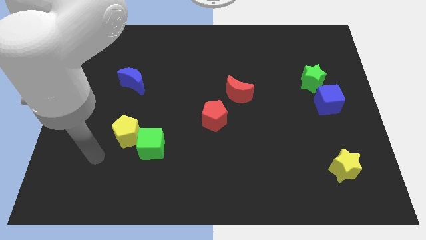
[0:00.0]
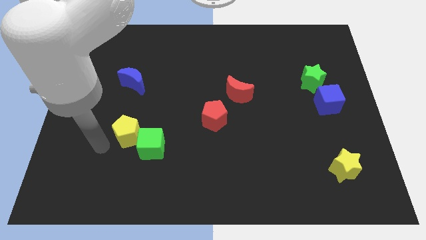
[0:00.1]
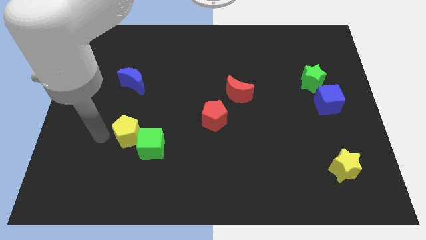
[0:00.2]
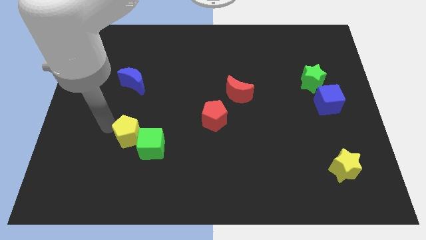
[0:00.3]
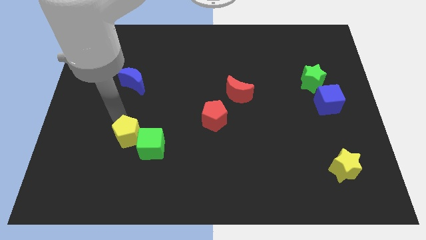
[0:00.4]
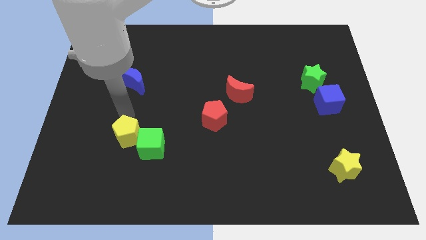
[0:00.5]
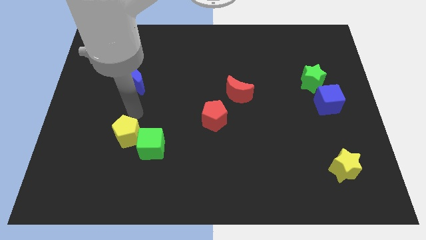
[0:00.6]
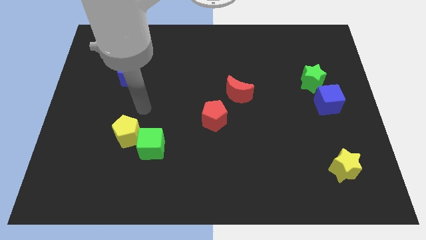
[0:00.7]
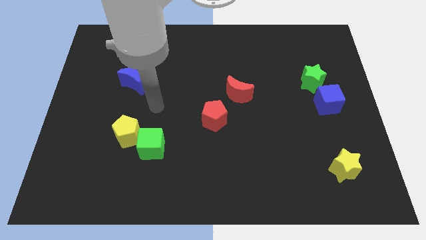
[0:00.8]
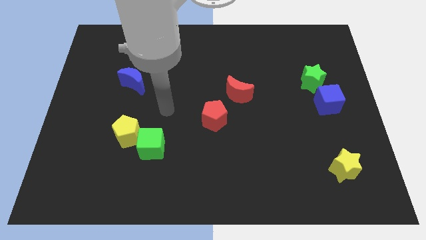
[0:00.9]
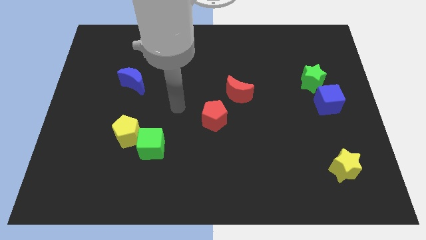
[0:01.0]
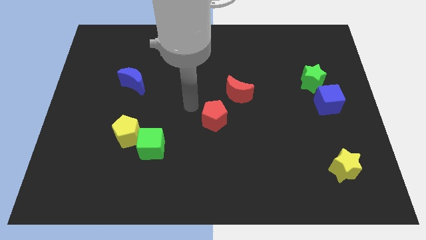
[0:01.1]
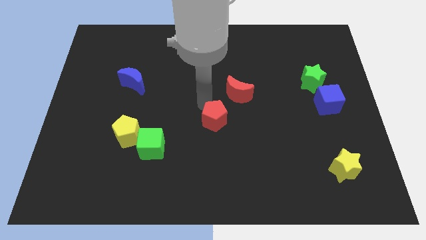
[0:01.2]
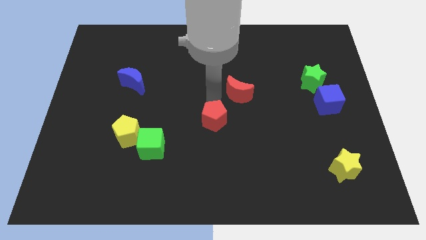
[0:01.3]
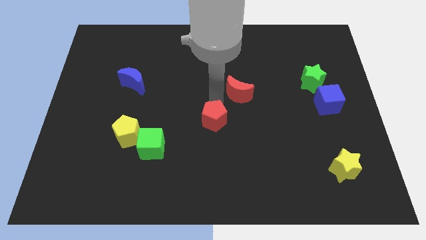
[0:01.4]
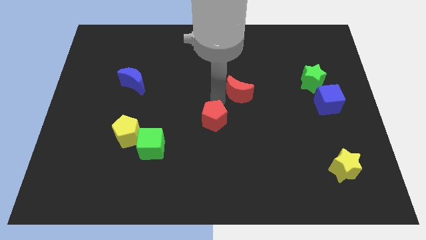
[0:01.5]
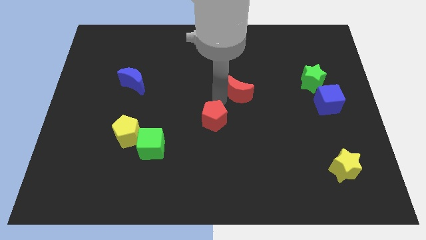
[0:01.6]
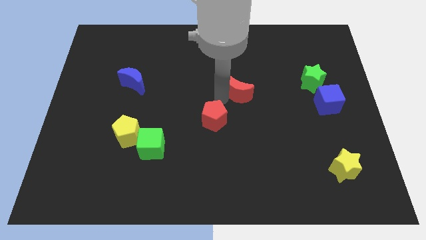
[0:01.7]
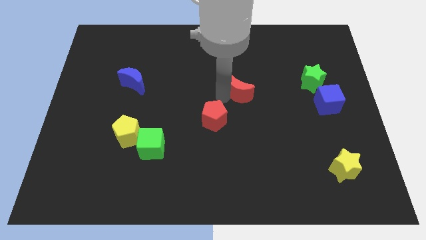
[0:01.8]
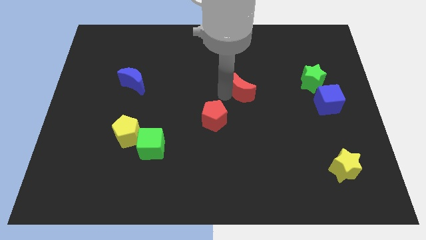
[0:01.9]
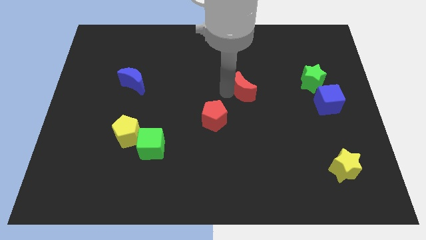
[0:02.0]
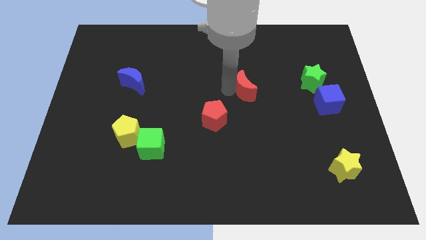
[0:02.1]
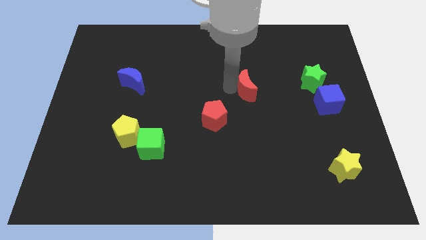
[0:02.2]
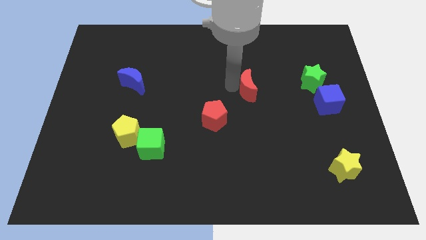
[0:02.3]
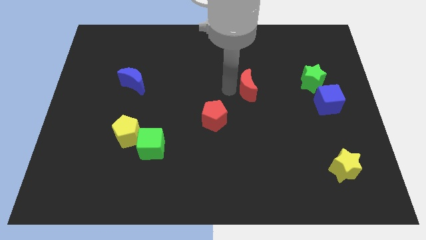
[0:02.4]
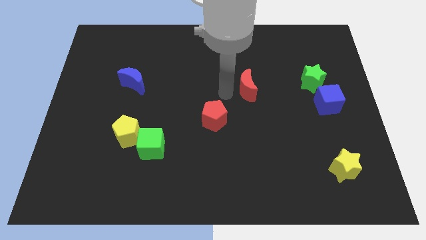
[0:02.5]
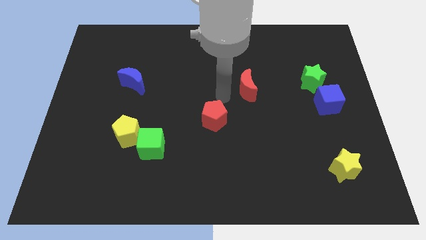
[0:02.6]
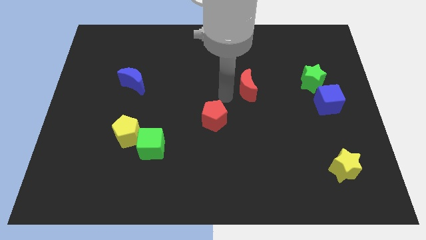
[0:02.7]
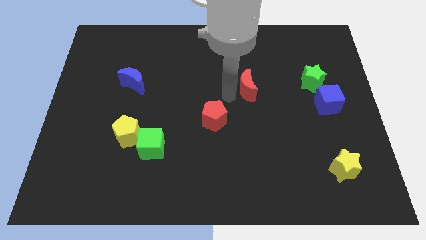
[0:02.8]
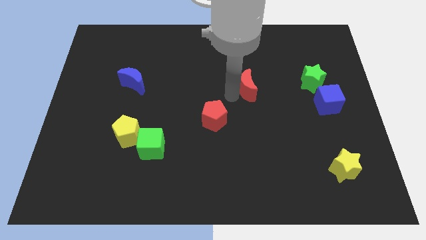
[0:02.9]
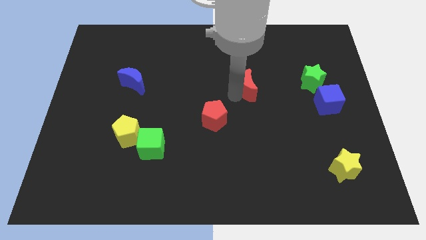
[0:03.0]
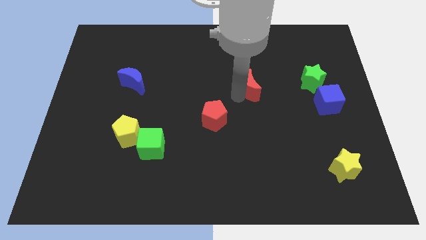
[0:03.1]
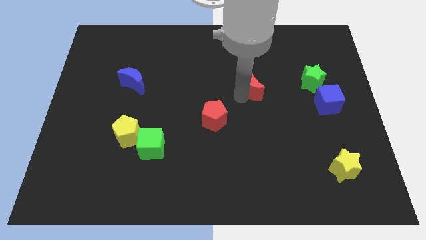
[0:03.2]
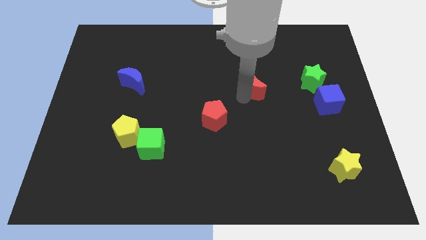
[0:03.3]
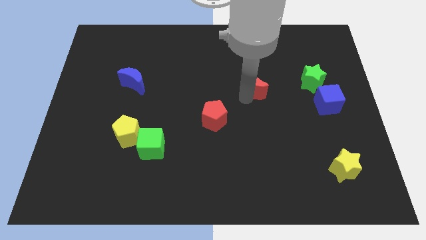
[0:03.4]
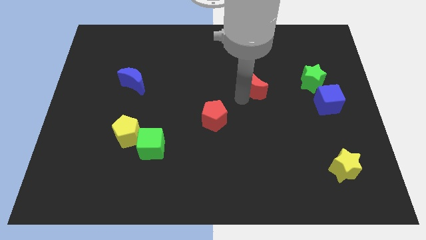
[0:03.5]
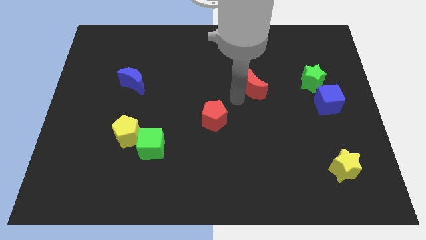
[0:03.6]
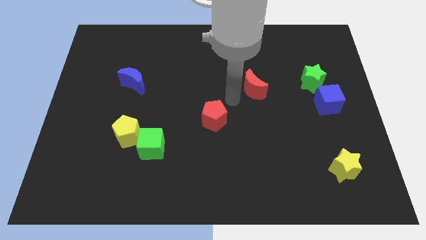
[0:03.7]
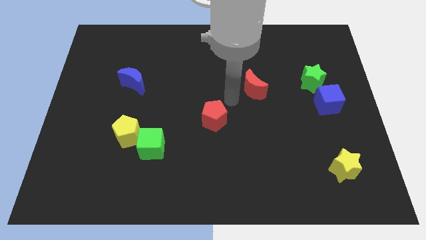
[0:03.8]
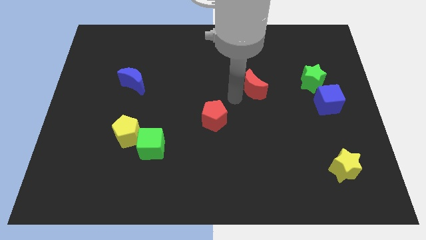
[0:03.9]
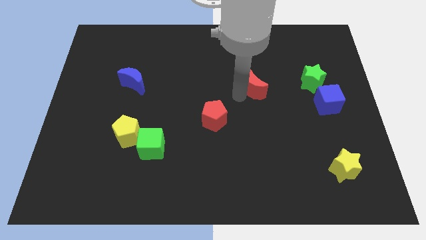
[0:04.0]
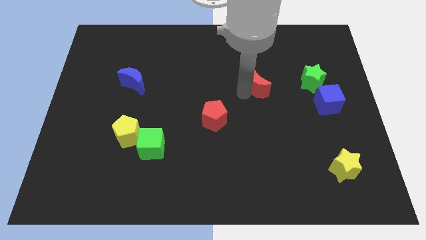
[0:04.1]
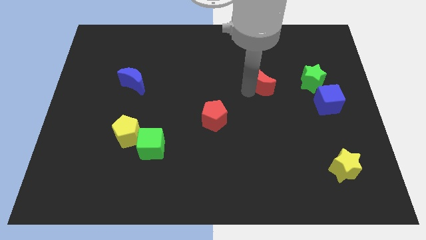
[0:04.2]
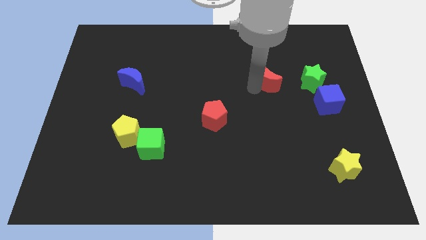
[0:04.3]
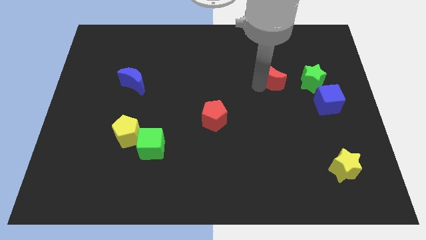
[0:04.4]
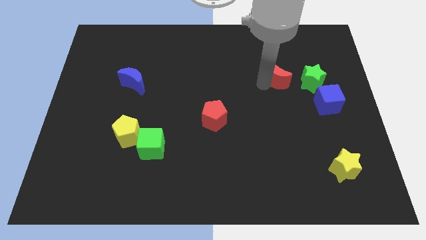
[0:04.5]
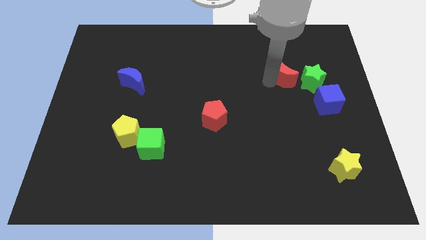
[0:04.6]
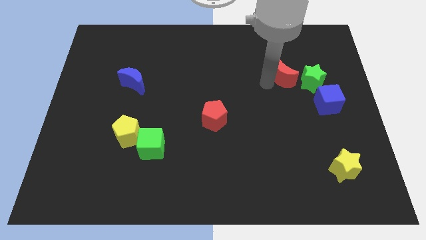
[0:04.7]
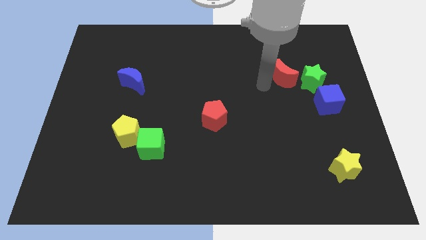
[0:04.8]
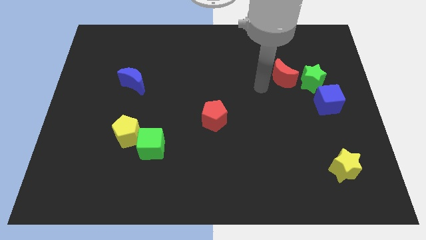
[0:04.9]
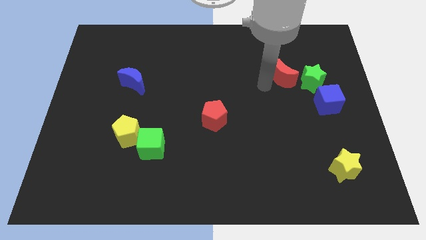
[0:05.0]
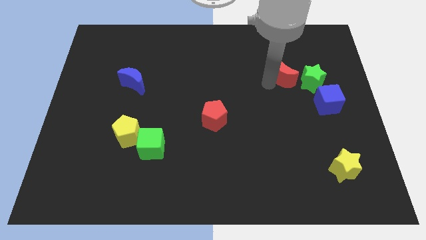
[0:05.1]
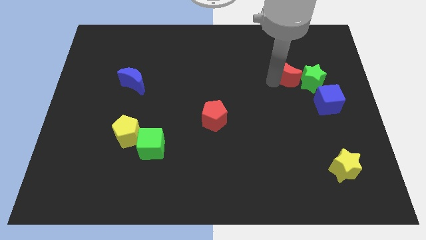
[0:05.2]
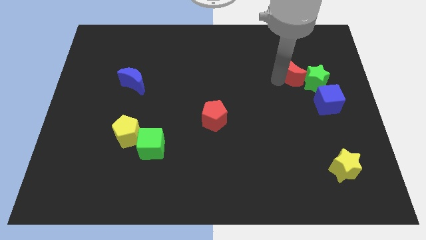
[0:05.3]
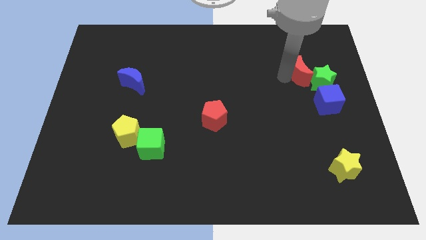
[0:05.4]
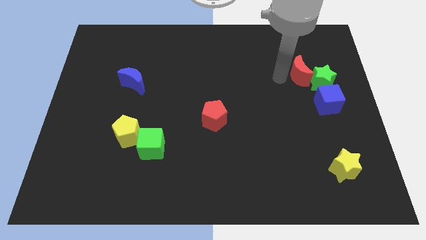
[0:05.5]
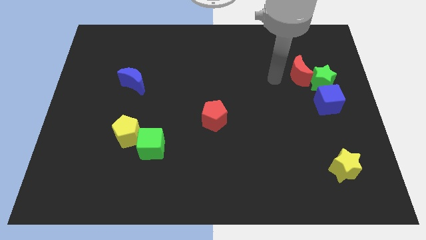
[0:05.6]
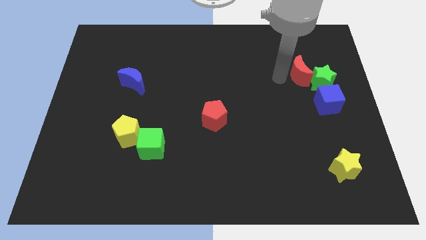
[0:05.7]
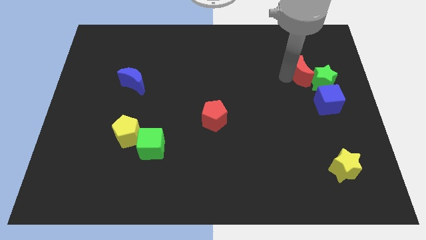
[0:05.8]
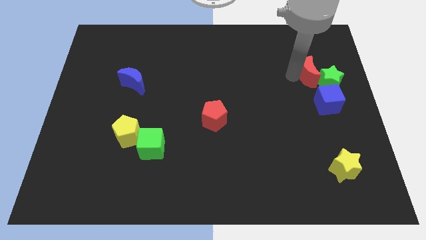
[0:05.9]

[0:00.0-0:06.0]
put the red moon to the top of the blue cube
